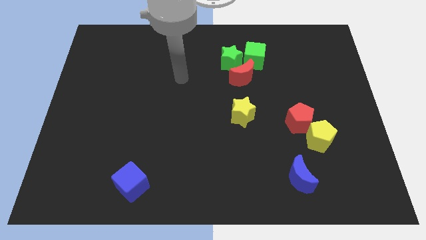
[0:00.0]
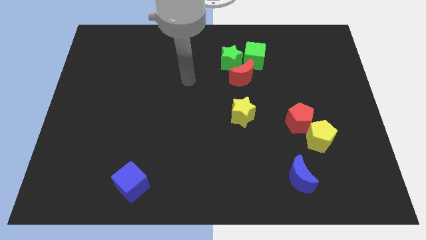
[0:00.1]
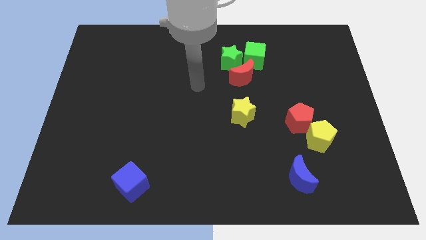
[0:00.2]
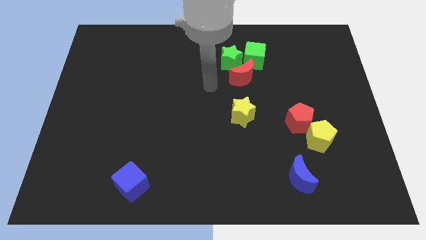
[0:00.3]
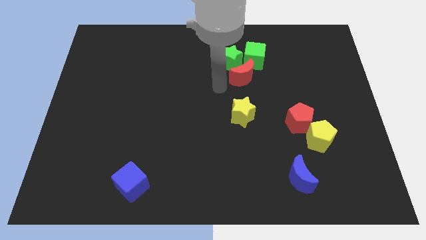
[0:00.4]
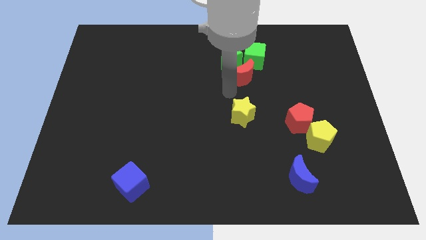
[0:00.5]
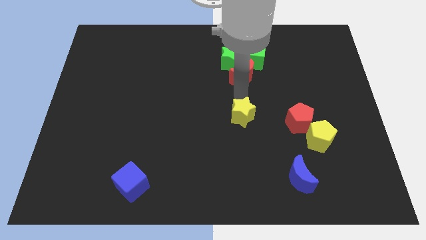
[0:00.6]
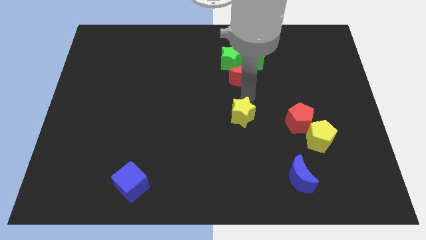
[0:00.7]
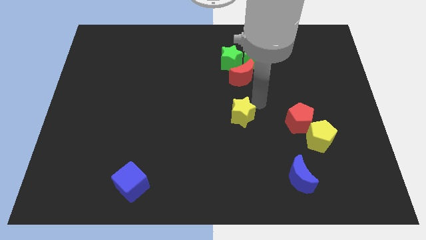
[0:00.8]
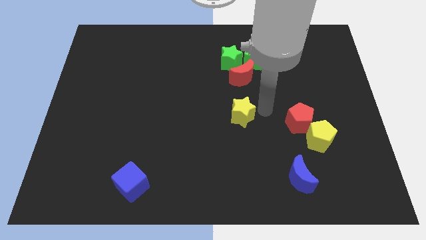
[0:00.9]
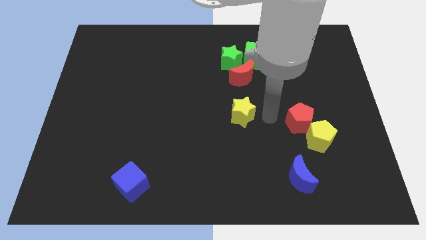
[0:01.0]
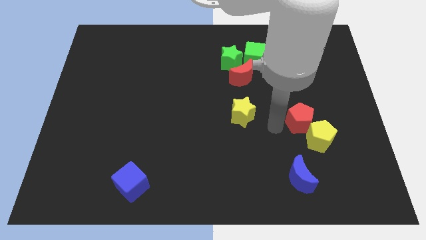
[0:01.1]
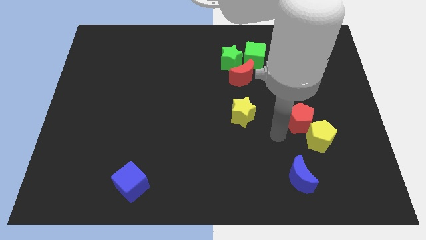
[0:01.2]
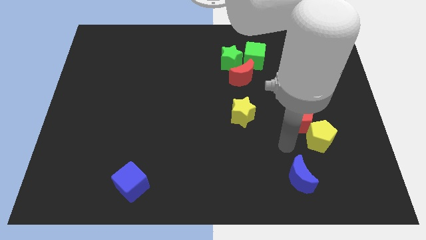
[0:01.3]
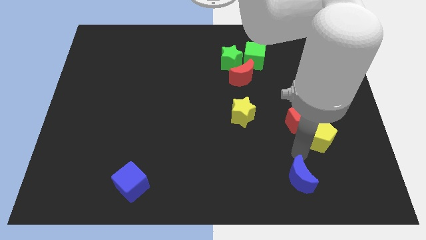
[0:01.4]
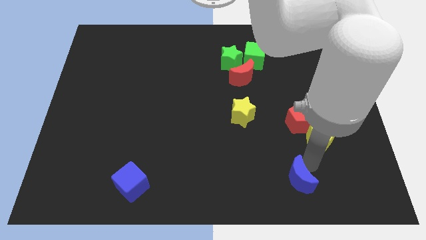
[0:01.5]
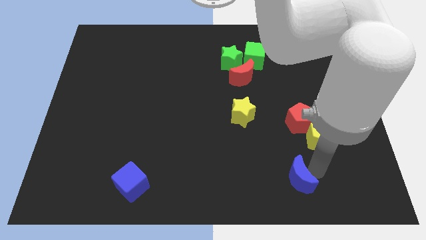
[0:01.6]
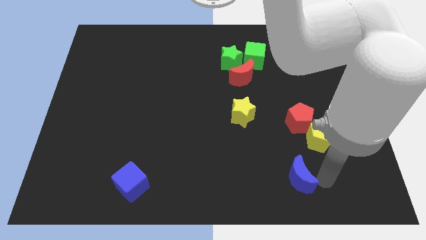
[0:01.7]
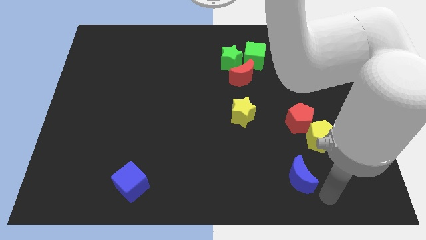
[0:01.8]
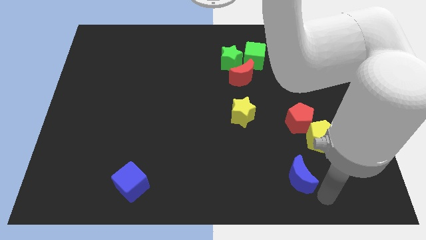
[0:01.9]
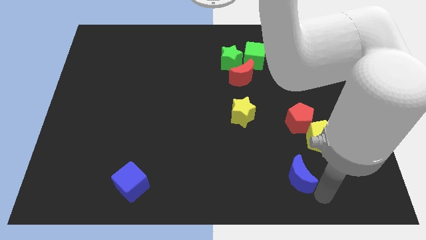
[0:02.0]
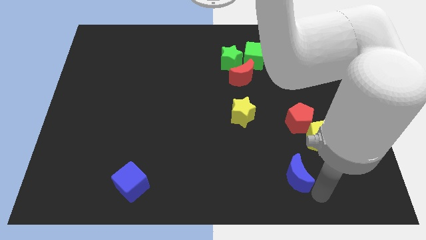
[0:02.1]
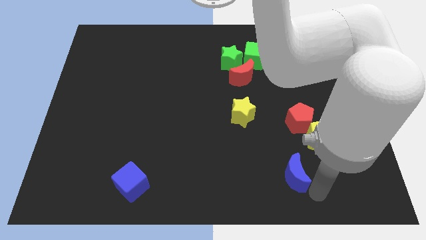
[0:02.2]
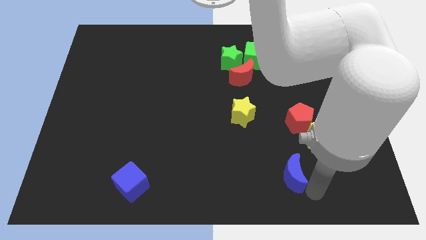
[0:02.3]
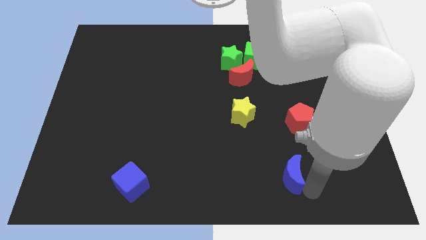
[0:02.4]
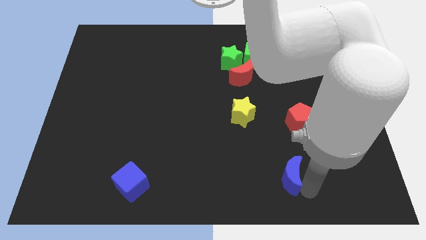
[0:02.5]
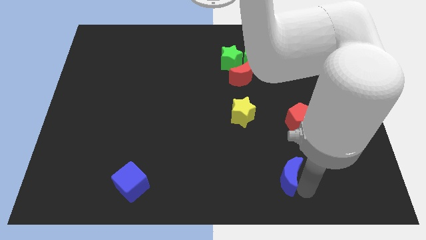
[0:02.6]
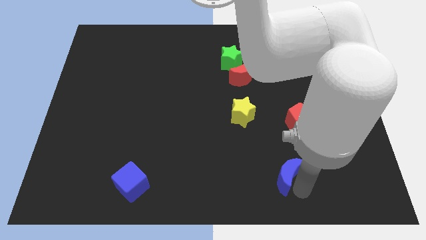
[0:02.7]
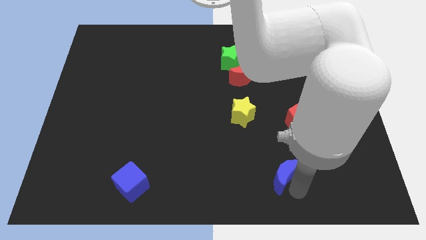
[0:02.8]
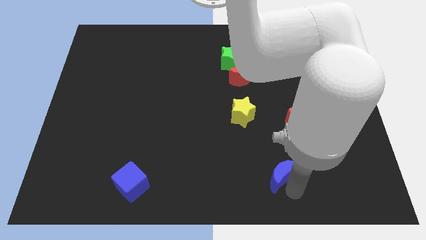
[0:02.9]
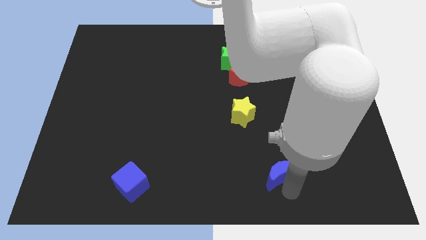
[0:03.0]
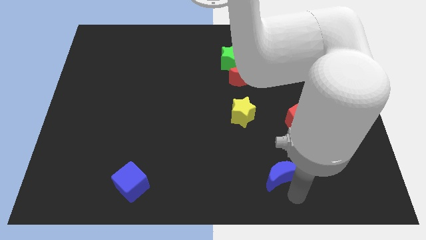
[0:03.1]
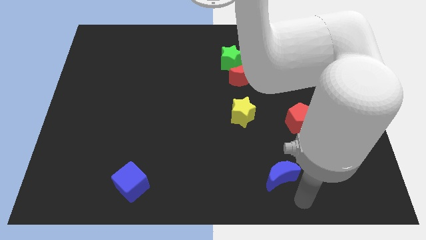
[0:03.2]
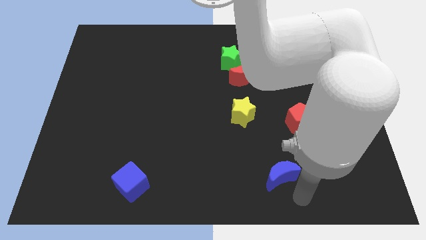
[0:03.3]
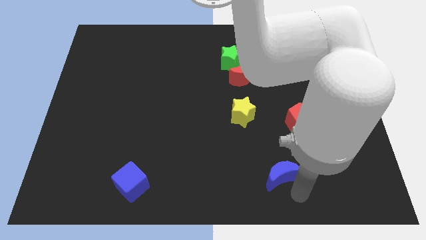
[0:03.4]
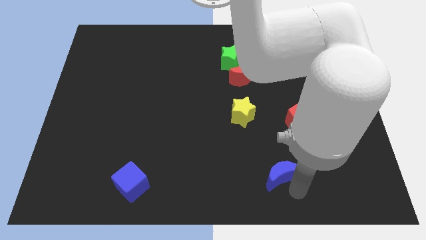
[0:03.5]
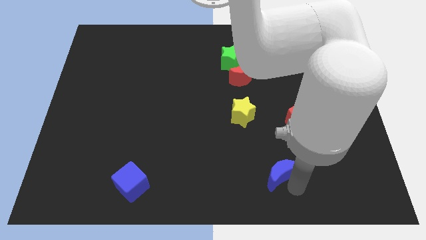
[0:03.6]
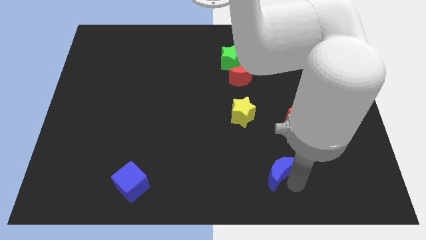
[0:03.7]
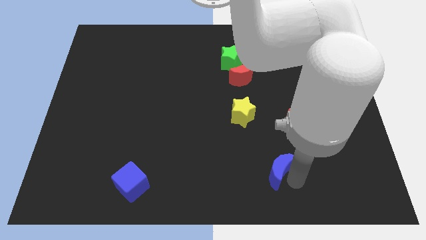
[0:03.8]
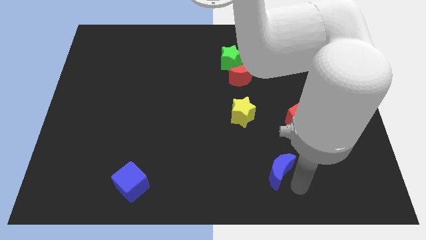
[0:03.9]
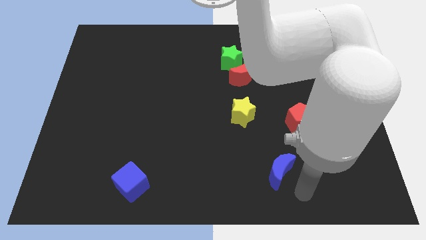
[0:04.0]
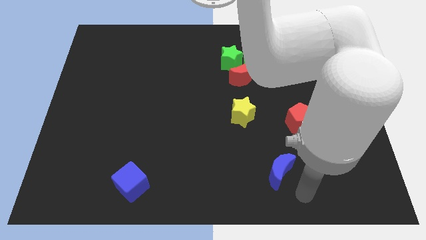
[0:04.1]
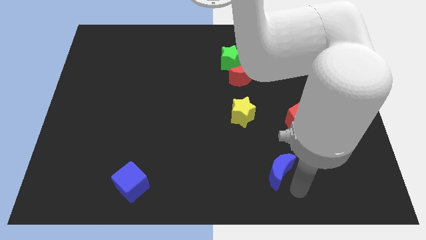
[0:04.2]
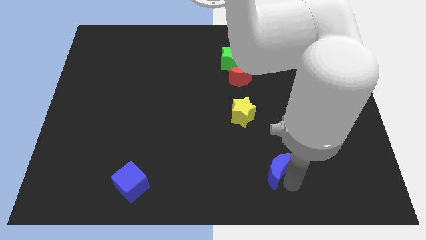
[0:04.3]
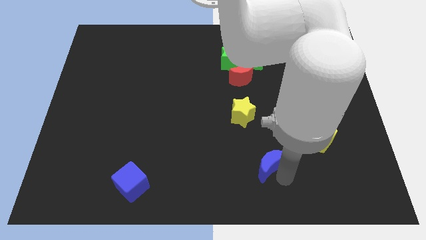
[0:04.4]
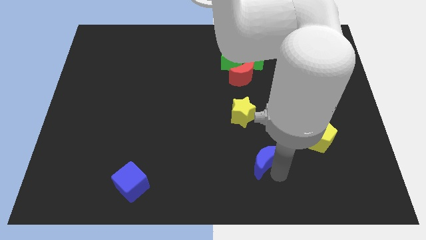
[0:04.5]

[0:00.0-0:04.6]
push the blue moon diagonally up and to the left somewhat

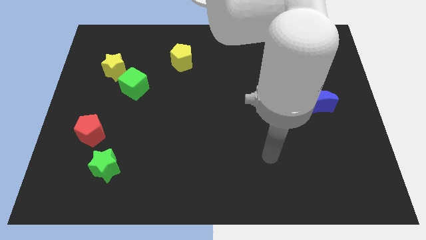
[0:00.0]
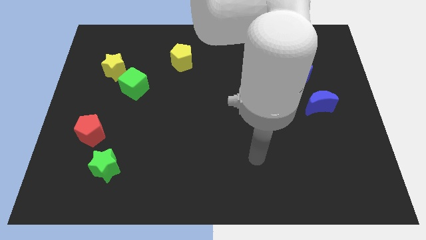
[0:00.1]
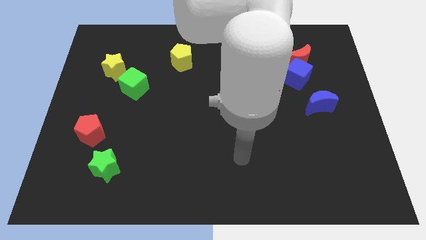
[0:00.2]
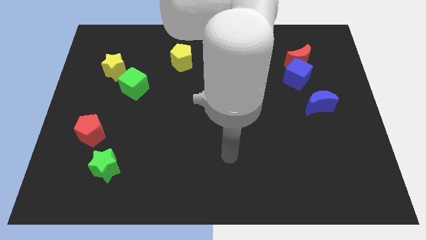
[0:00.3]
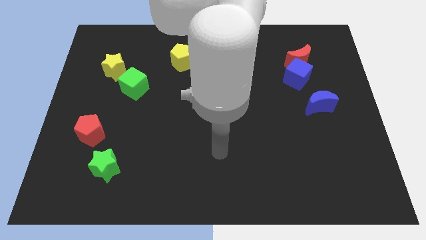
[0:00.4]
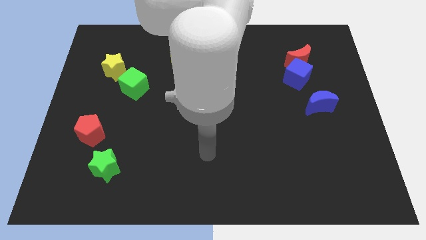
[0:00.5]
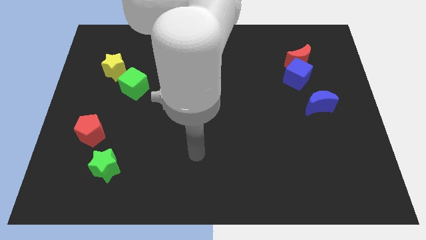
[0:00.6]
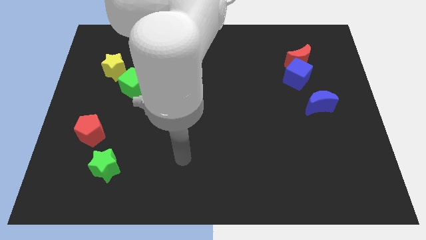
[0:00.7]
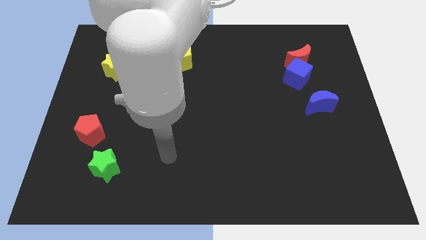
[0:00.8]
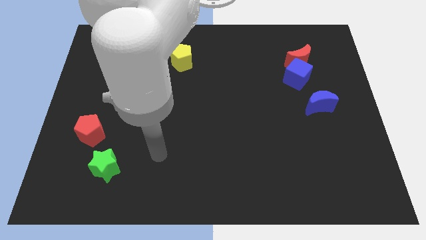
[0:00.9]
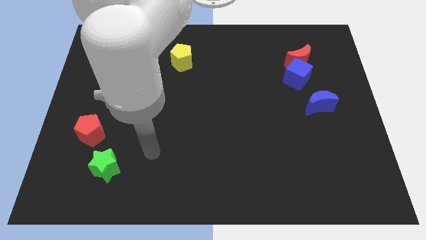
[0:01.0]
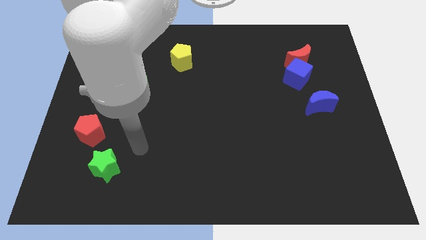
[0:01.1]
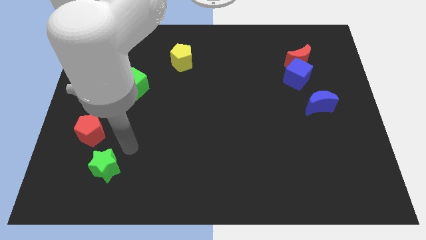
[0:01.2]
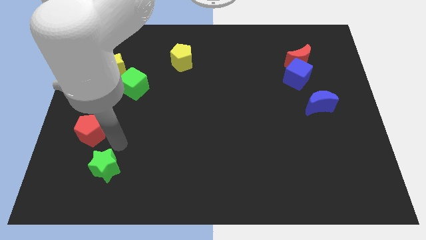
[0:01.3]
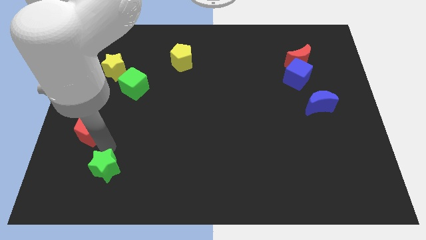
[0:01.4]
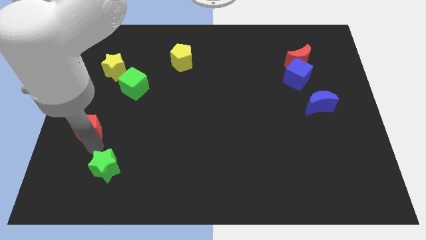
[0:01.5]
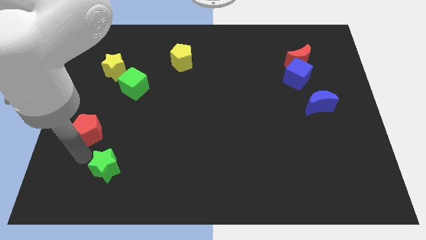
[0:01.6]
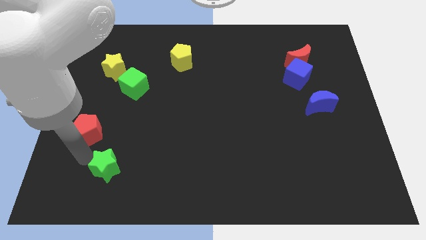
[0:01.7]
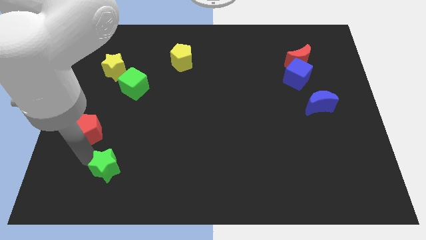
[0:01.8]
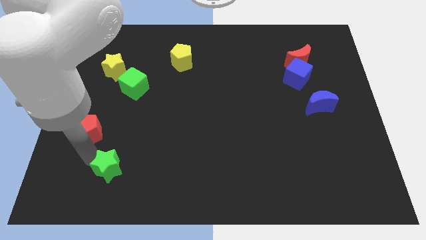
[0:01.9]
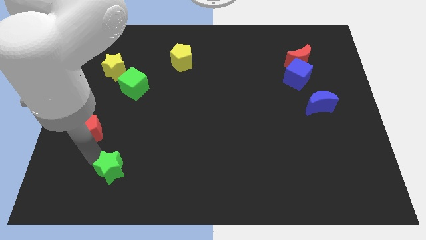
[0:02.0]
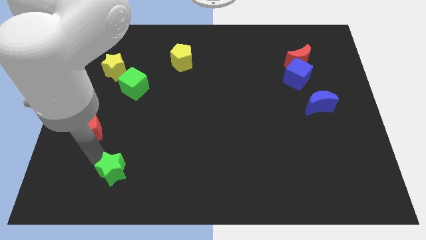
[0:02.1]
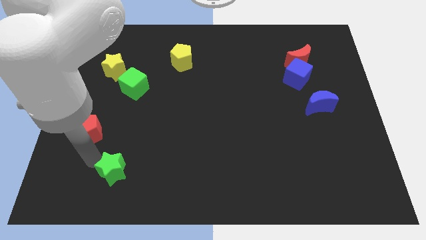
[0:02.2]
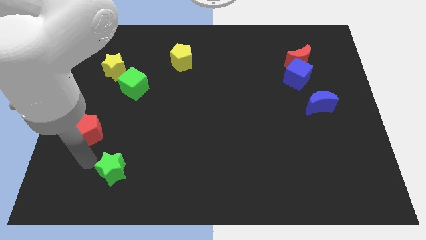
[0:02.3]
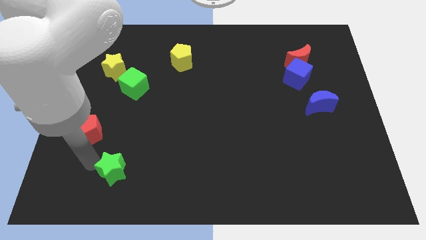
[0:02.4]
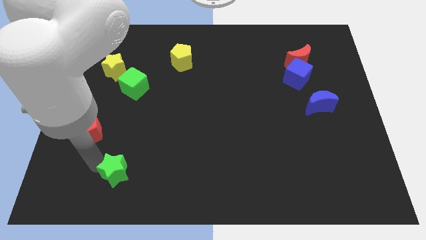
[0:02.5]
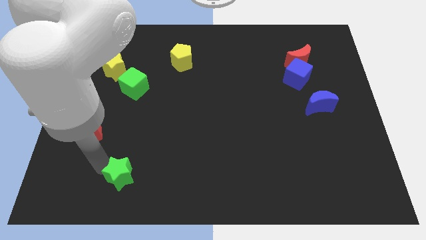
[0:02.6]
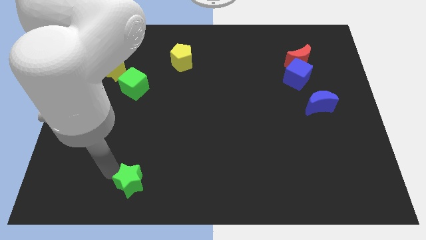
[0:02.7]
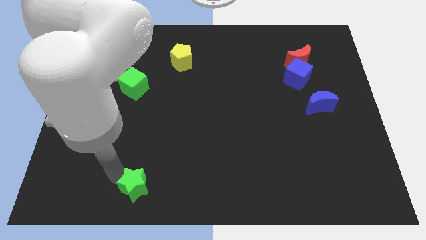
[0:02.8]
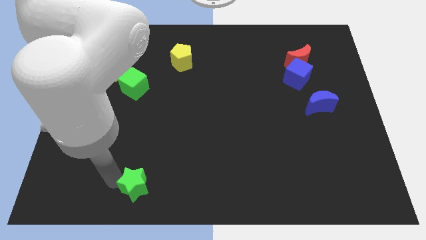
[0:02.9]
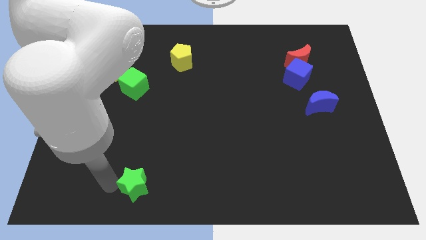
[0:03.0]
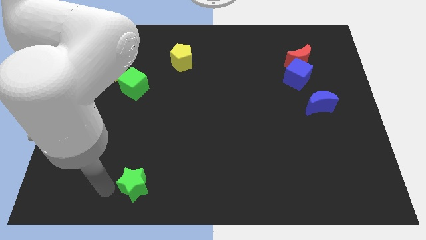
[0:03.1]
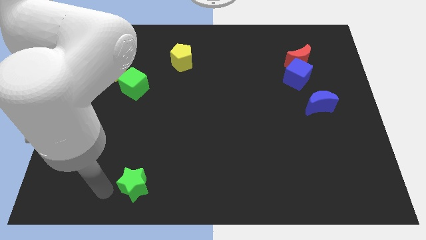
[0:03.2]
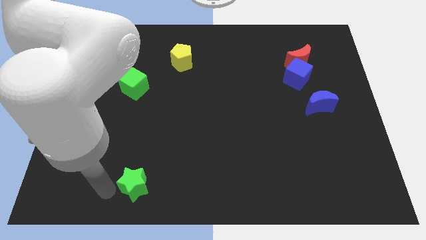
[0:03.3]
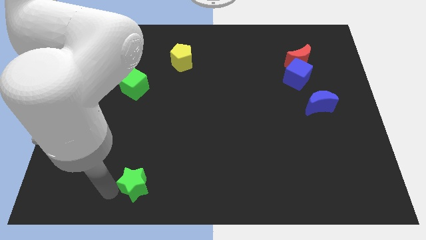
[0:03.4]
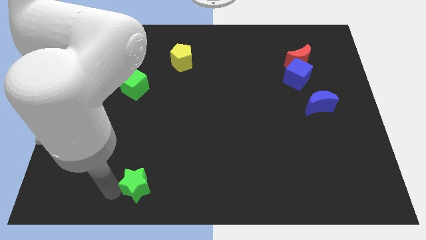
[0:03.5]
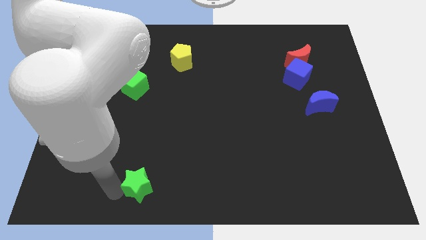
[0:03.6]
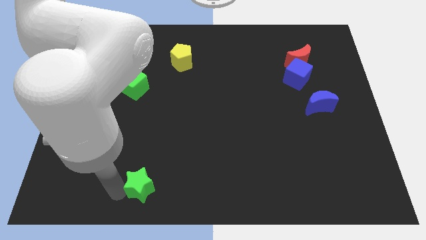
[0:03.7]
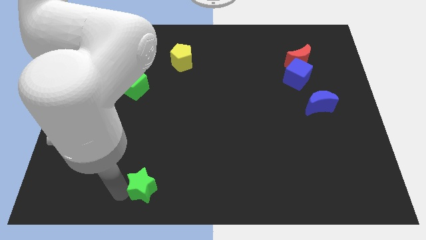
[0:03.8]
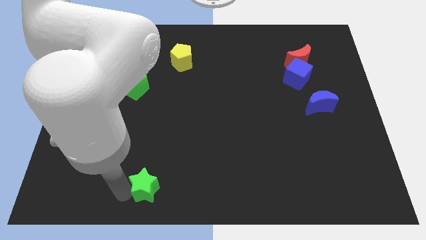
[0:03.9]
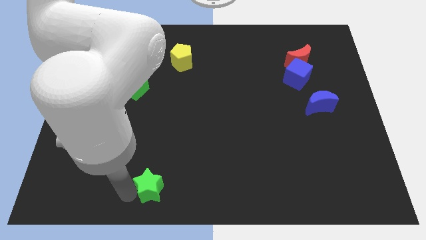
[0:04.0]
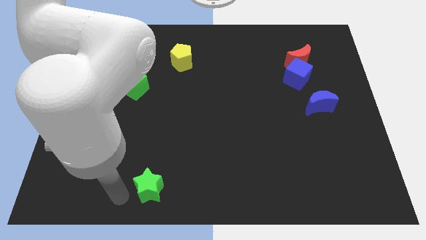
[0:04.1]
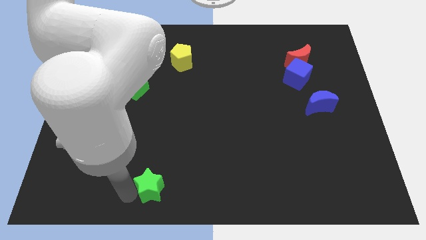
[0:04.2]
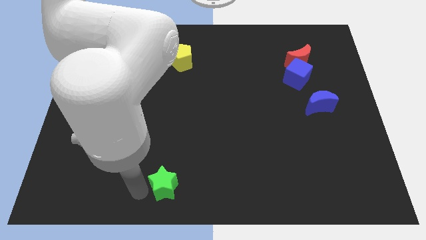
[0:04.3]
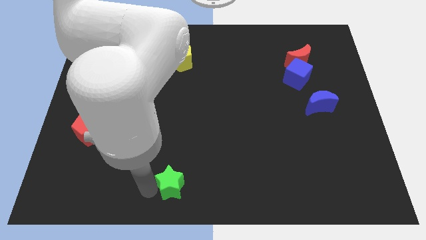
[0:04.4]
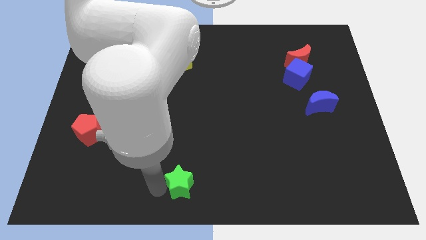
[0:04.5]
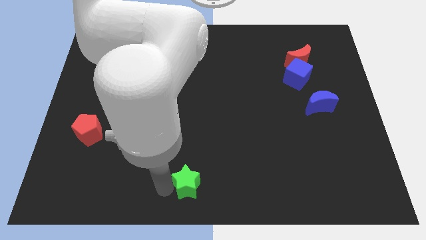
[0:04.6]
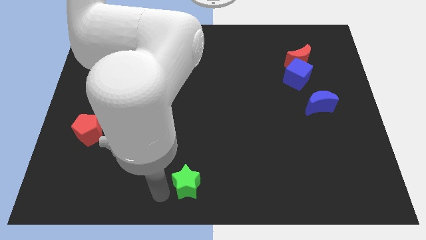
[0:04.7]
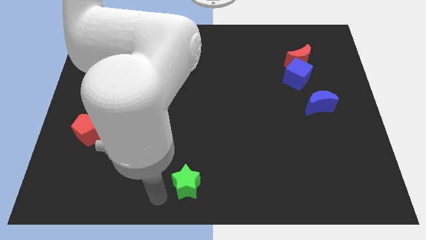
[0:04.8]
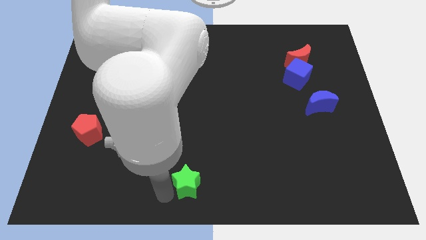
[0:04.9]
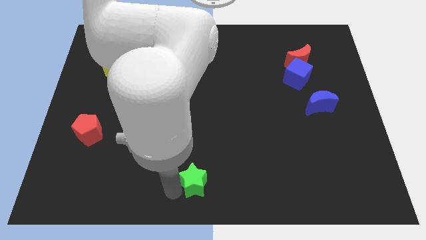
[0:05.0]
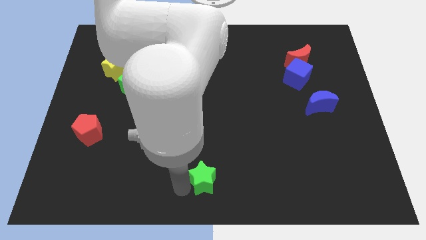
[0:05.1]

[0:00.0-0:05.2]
slide the green star to the right
